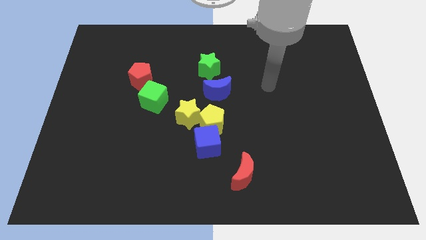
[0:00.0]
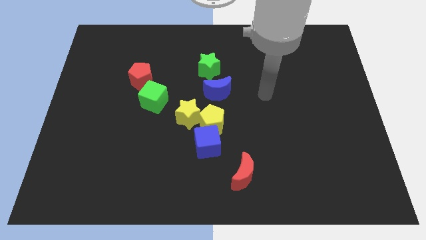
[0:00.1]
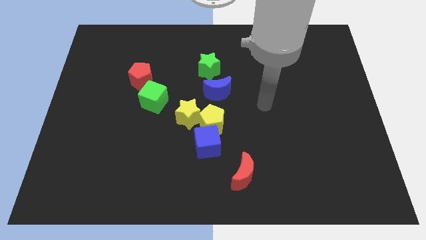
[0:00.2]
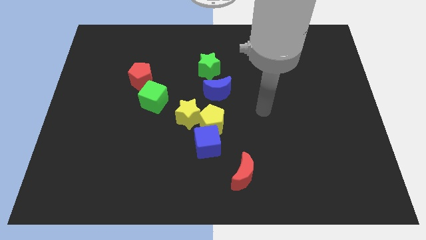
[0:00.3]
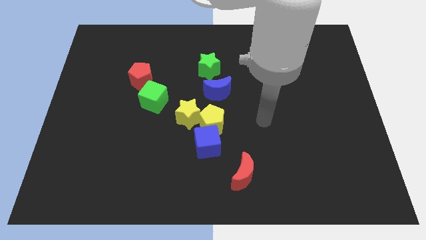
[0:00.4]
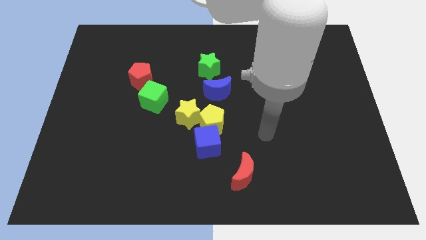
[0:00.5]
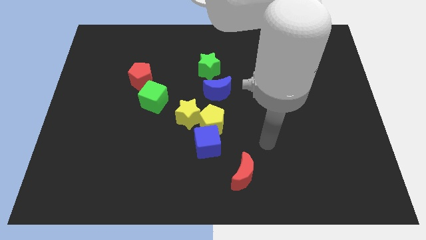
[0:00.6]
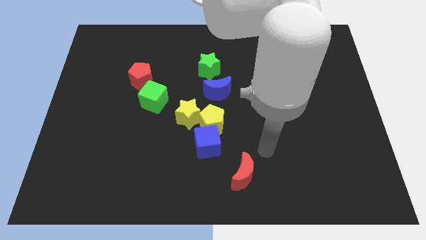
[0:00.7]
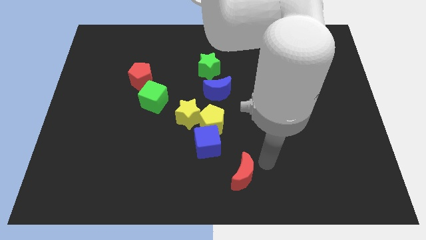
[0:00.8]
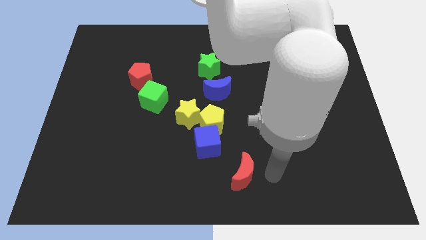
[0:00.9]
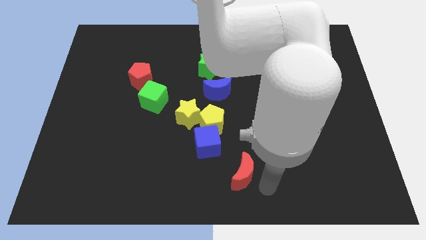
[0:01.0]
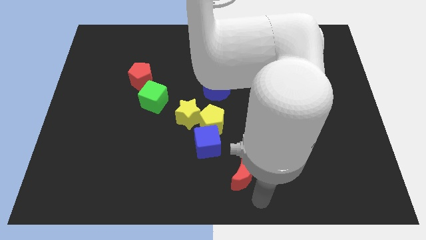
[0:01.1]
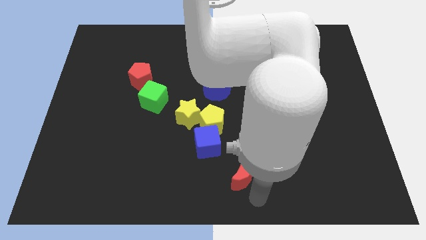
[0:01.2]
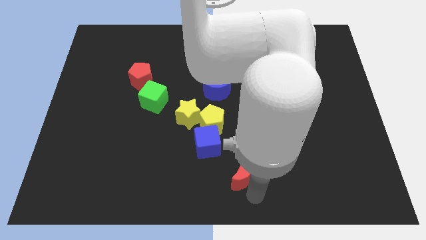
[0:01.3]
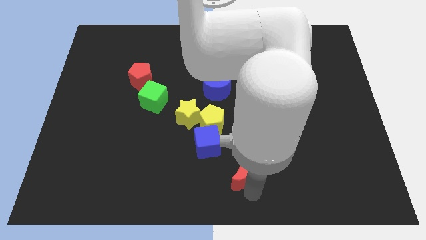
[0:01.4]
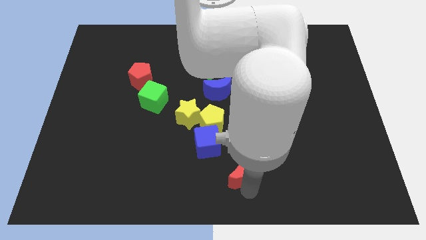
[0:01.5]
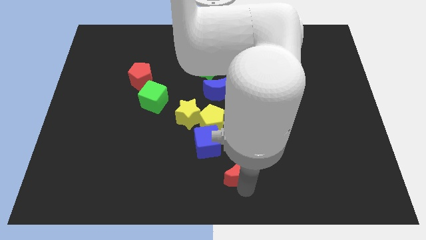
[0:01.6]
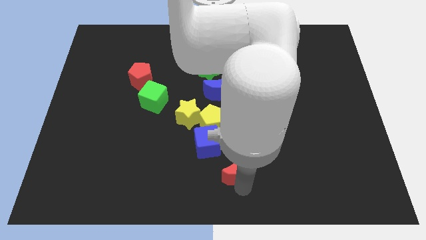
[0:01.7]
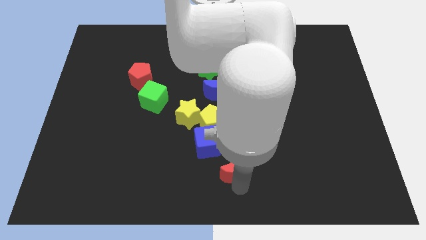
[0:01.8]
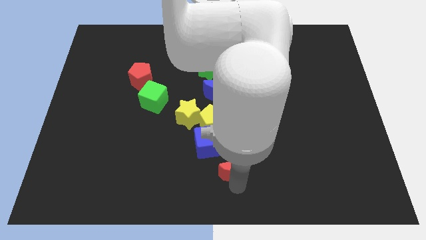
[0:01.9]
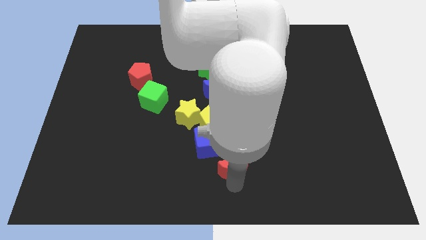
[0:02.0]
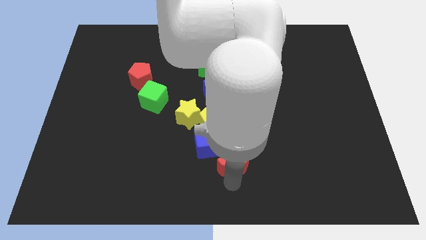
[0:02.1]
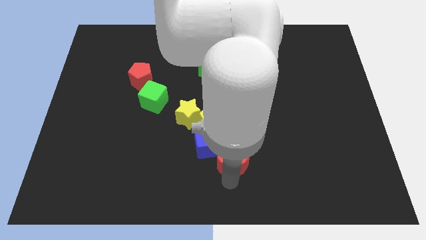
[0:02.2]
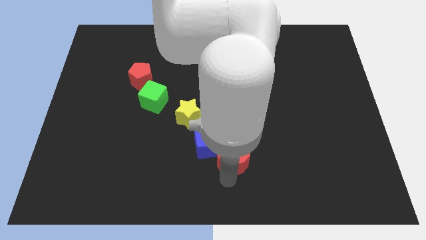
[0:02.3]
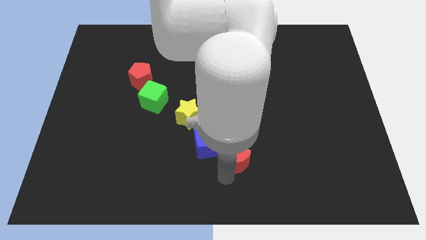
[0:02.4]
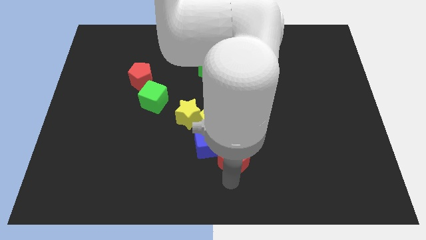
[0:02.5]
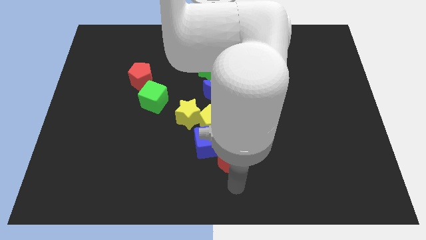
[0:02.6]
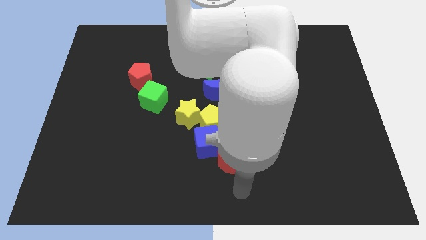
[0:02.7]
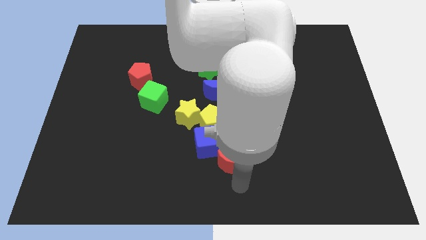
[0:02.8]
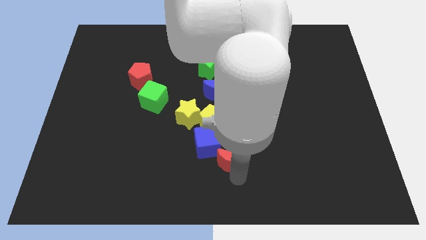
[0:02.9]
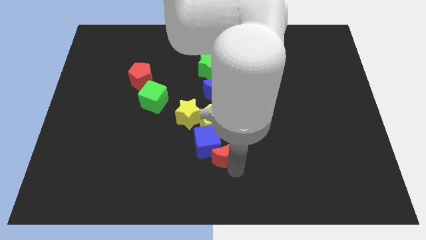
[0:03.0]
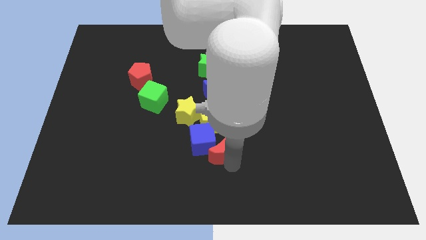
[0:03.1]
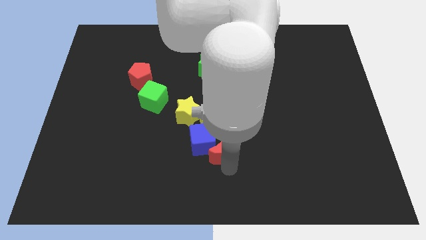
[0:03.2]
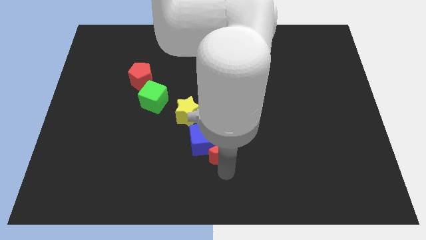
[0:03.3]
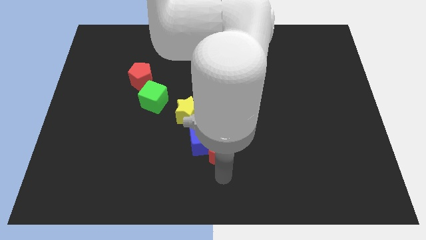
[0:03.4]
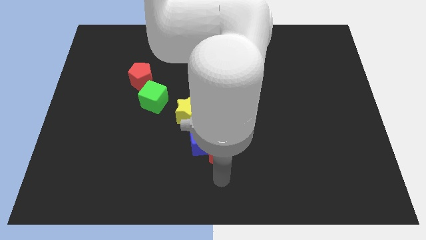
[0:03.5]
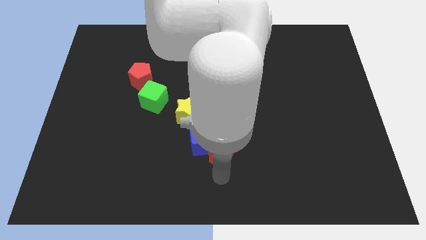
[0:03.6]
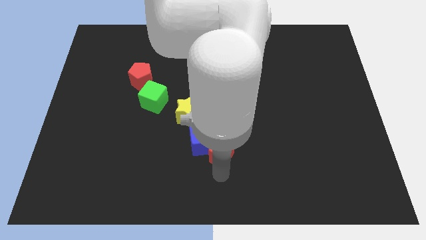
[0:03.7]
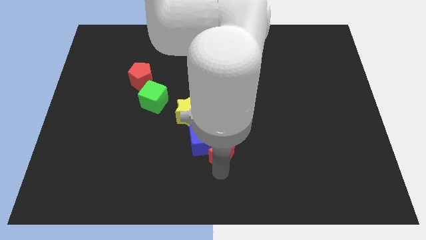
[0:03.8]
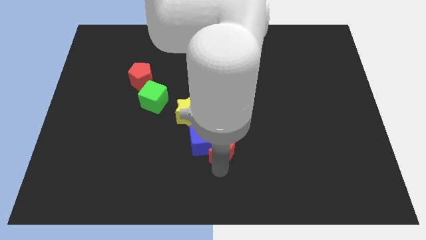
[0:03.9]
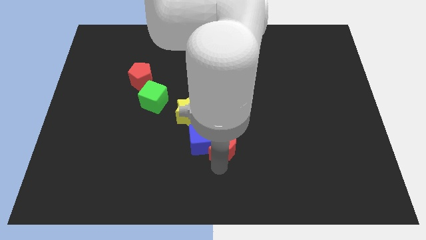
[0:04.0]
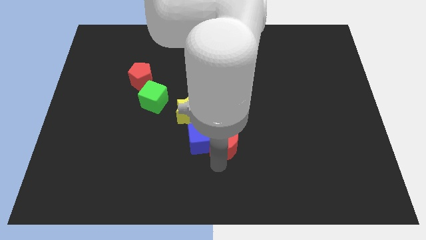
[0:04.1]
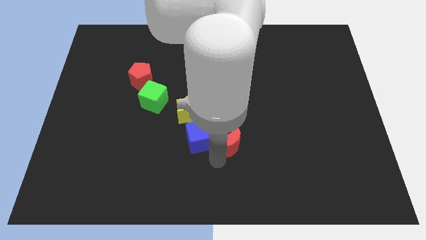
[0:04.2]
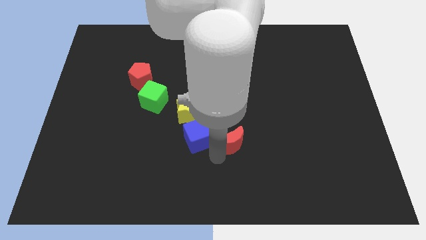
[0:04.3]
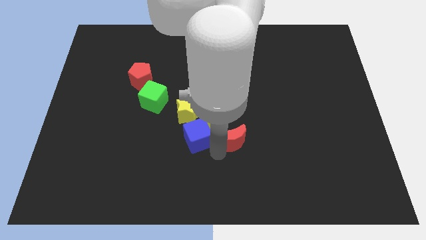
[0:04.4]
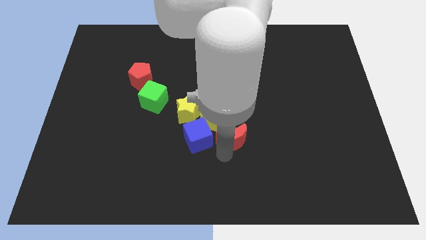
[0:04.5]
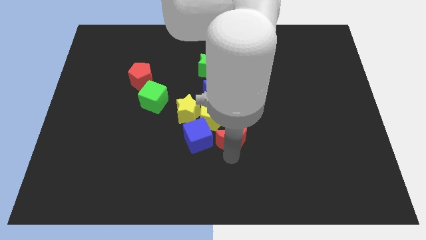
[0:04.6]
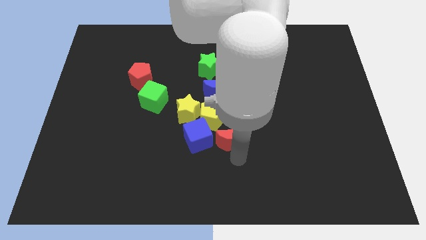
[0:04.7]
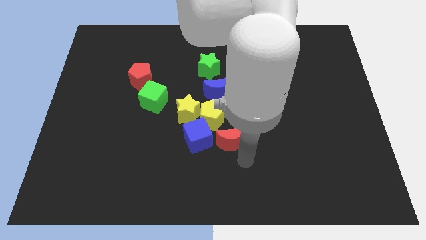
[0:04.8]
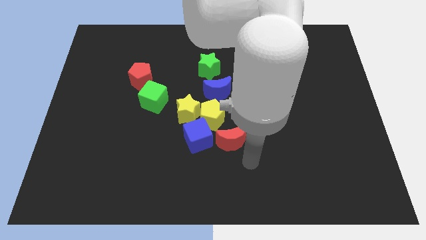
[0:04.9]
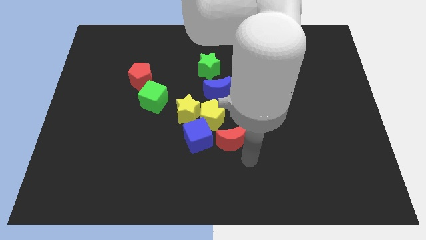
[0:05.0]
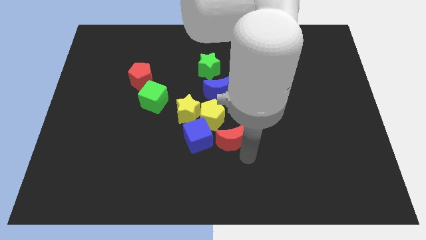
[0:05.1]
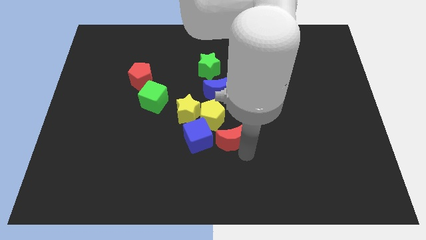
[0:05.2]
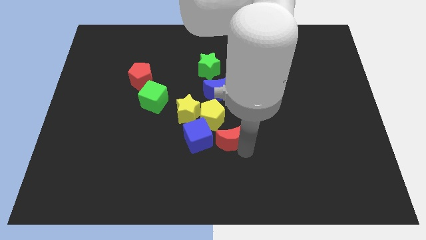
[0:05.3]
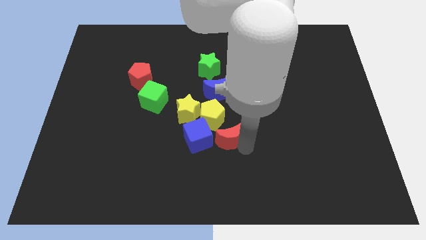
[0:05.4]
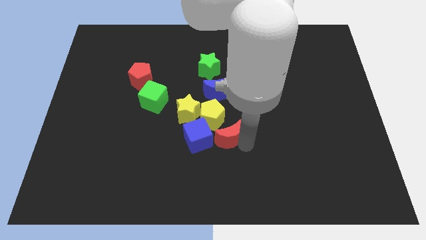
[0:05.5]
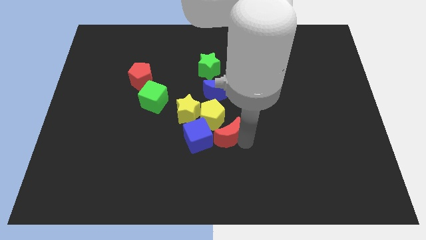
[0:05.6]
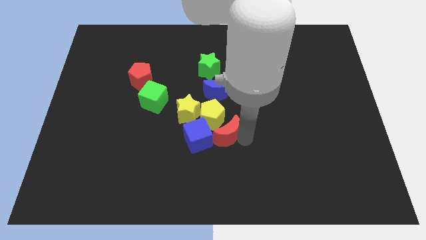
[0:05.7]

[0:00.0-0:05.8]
move the red moon to the yellow pentagon
